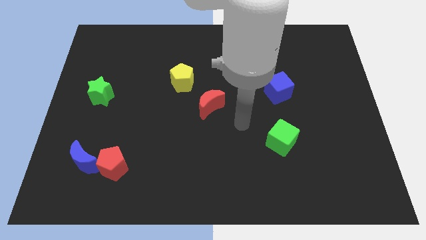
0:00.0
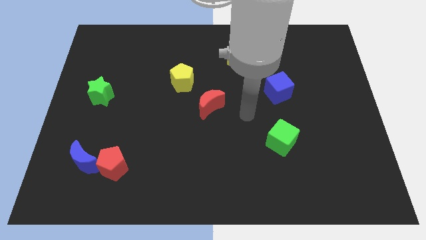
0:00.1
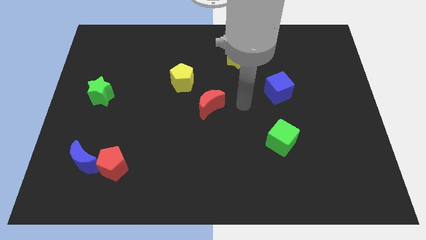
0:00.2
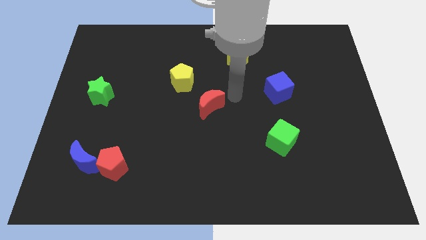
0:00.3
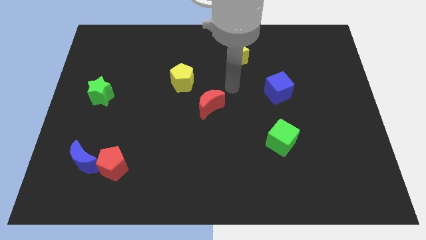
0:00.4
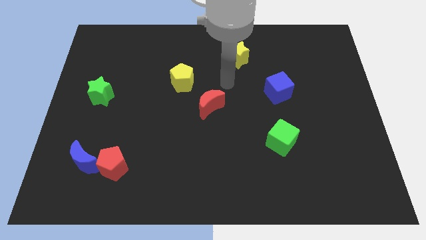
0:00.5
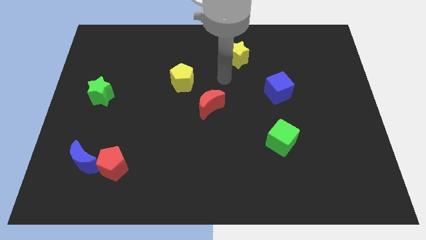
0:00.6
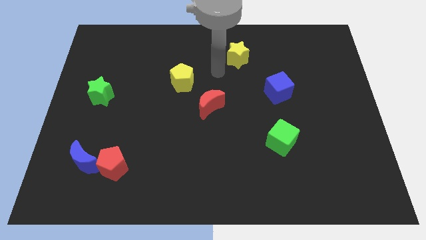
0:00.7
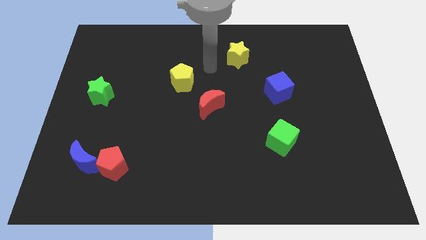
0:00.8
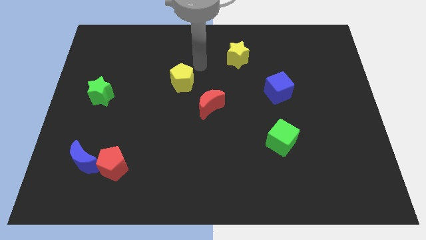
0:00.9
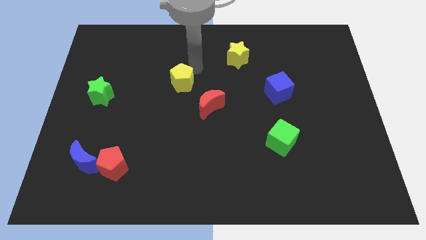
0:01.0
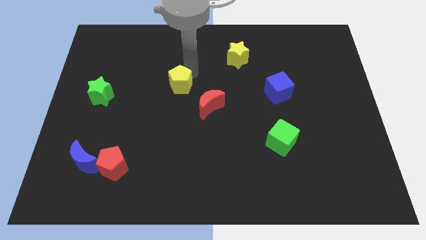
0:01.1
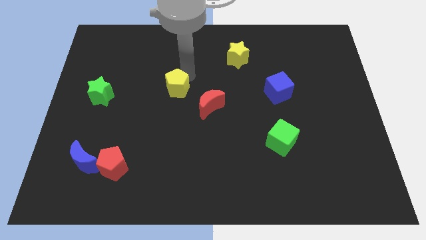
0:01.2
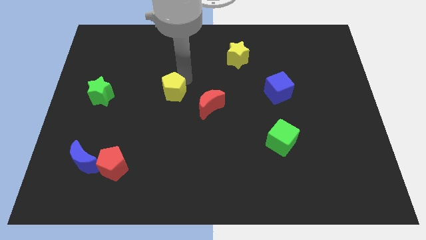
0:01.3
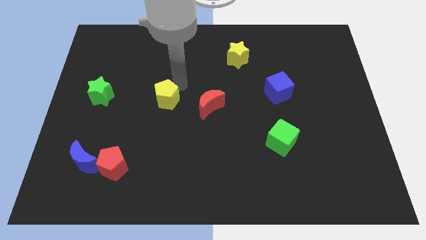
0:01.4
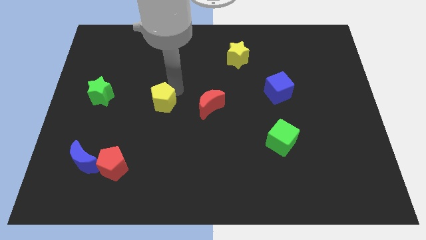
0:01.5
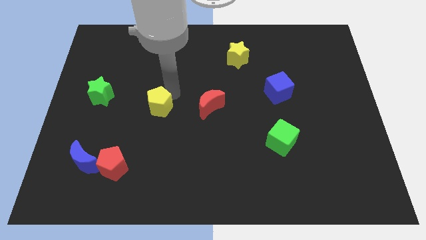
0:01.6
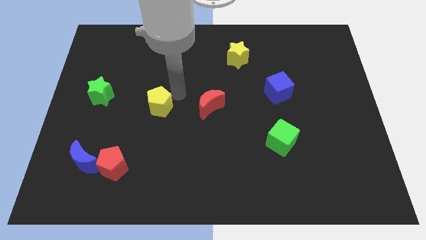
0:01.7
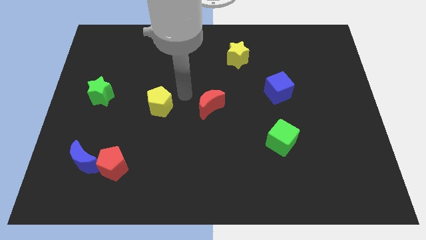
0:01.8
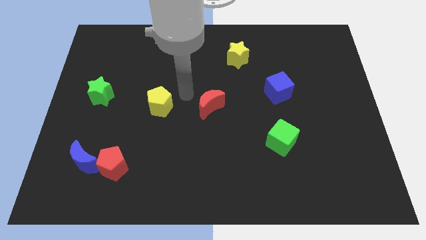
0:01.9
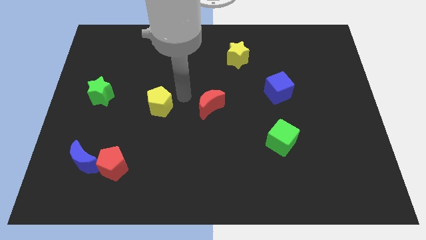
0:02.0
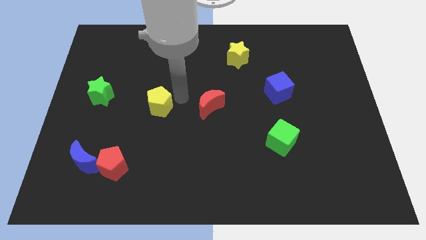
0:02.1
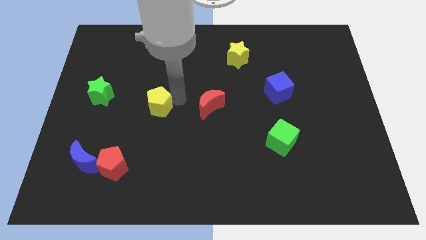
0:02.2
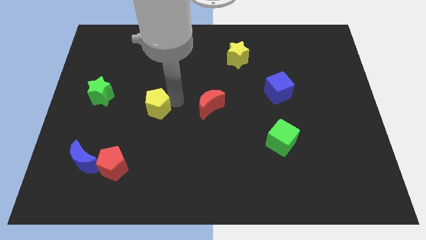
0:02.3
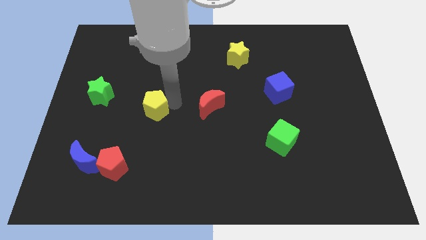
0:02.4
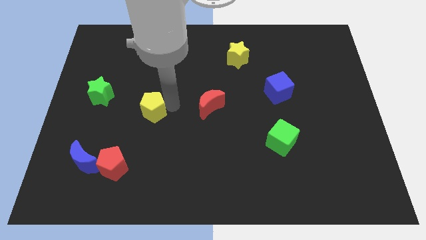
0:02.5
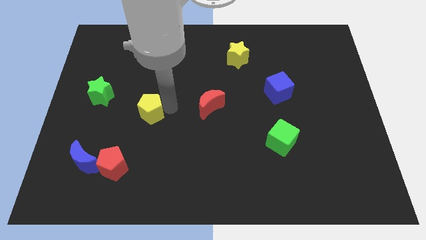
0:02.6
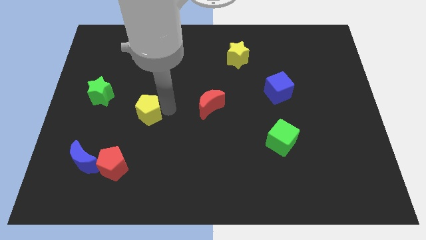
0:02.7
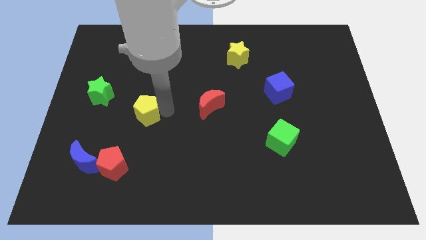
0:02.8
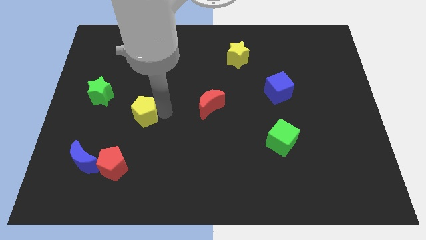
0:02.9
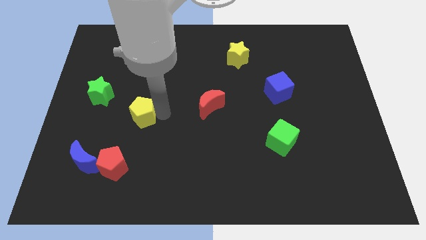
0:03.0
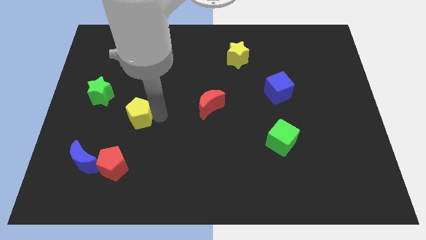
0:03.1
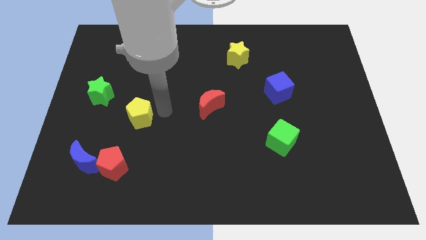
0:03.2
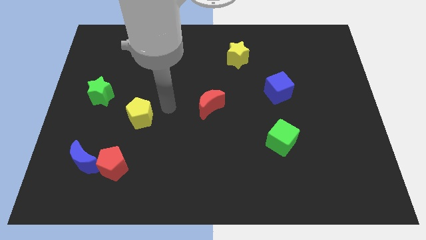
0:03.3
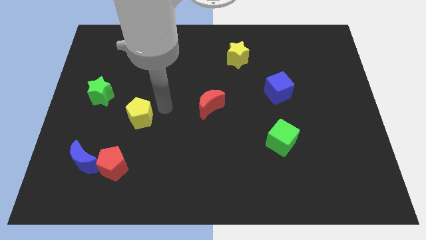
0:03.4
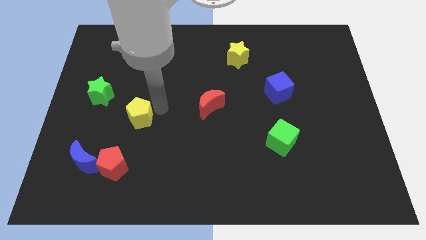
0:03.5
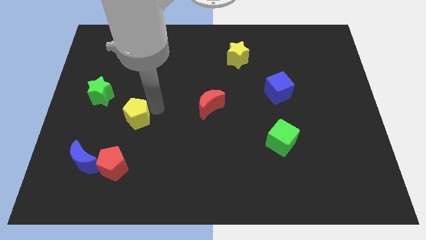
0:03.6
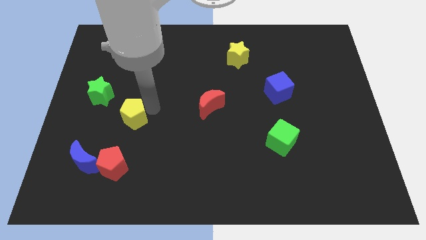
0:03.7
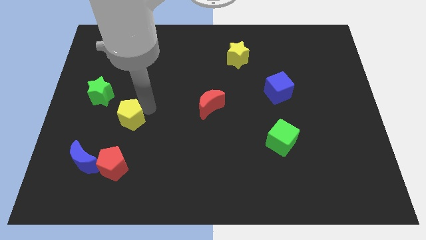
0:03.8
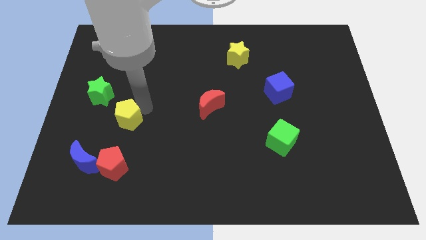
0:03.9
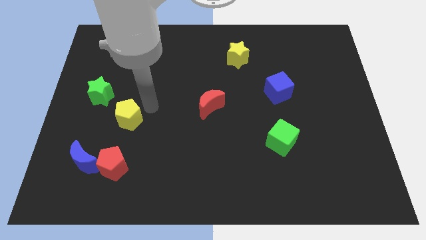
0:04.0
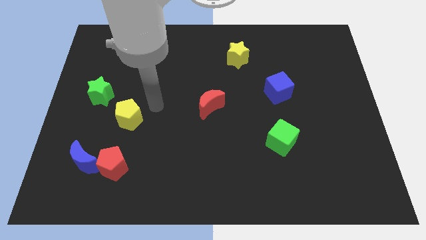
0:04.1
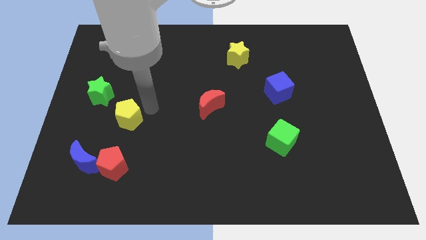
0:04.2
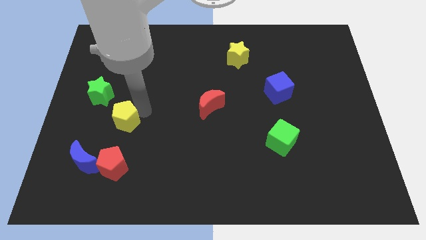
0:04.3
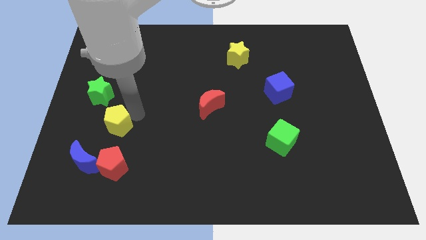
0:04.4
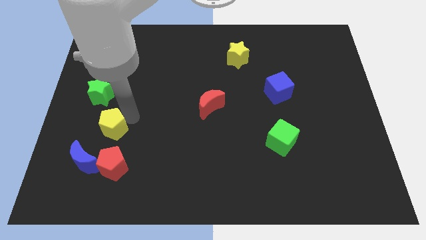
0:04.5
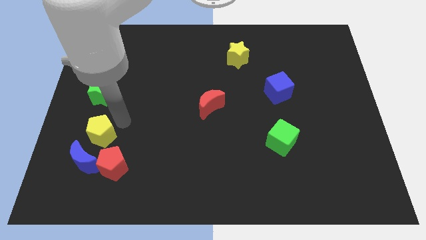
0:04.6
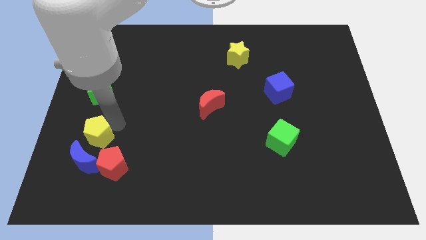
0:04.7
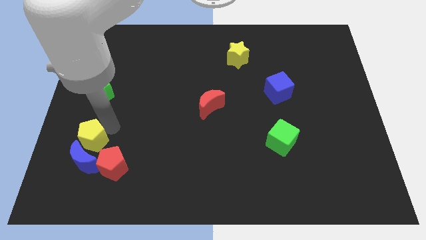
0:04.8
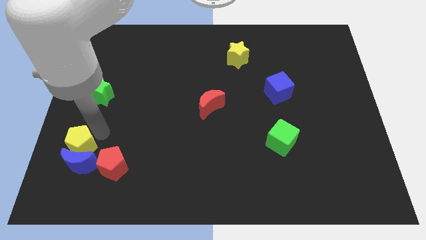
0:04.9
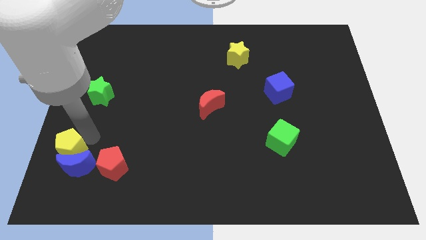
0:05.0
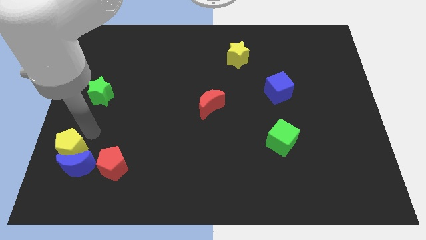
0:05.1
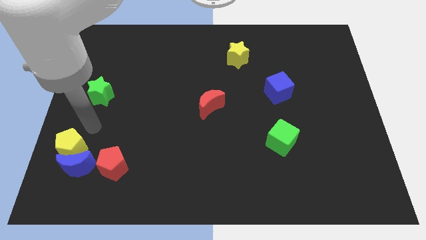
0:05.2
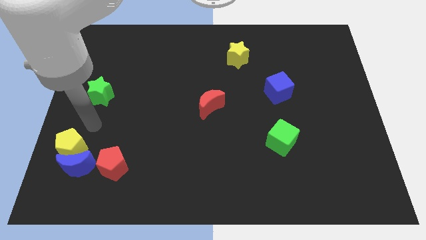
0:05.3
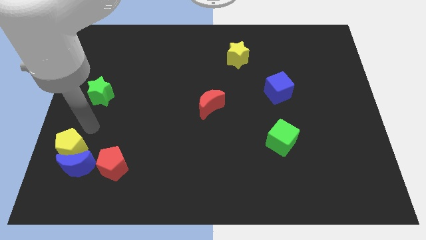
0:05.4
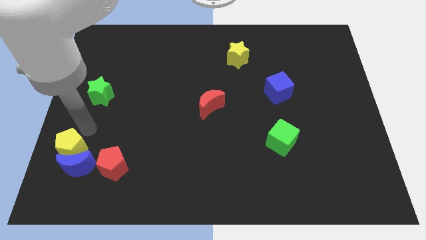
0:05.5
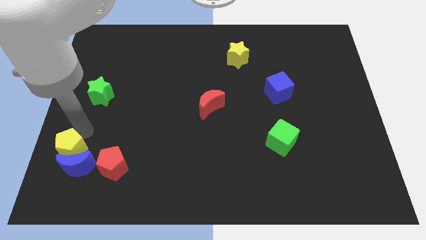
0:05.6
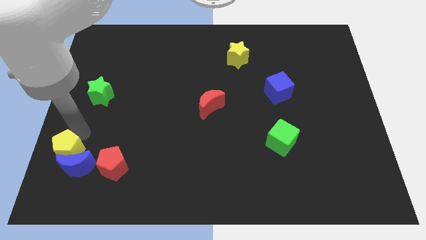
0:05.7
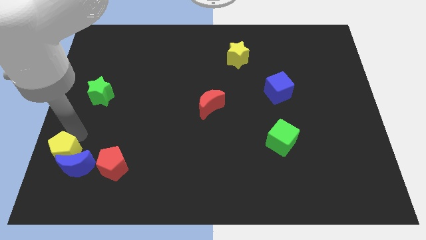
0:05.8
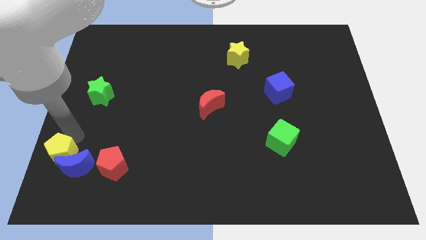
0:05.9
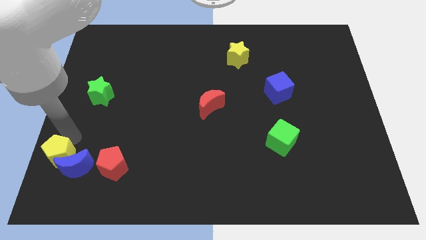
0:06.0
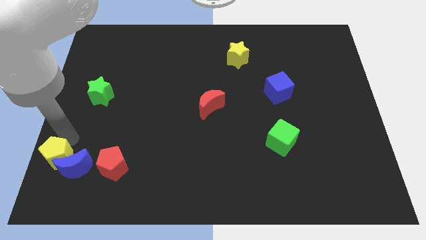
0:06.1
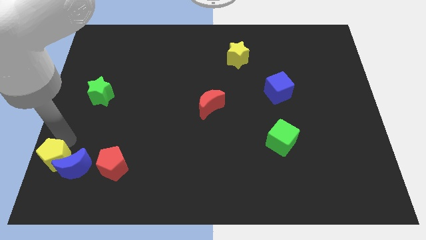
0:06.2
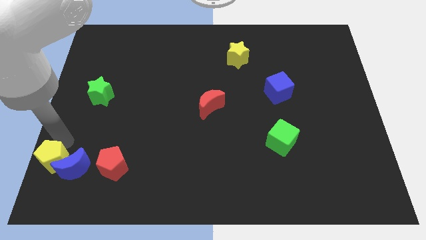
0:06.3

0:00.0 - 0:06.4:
put the yellow pentagon to the bottom left
